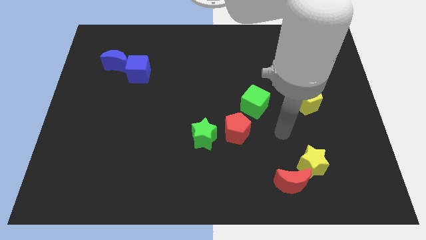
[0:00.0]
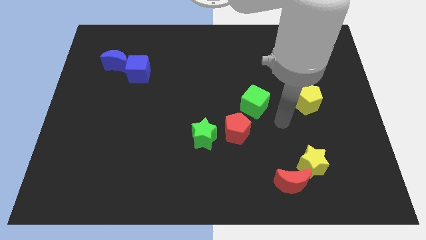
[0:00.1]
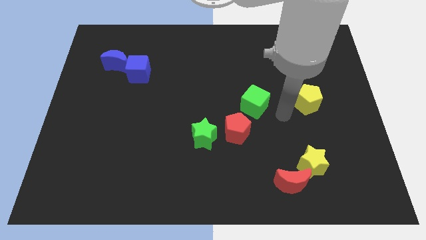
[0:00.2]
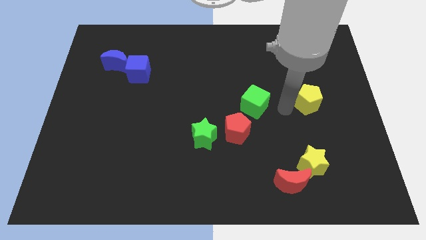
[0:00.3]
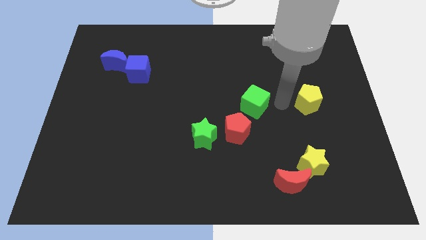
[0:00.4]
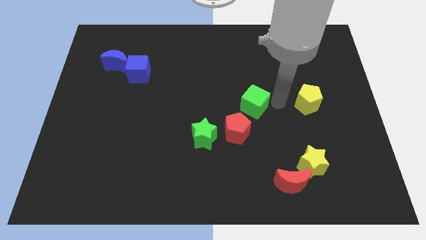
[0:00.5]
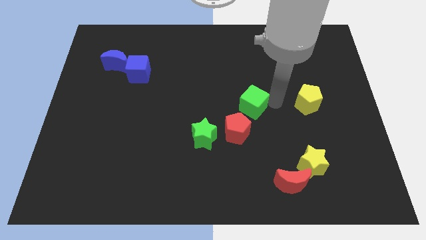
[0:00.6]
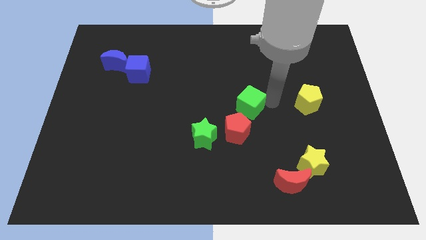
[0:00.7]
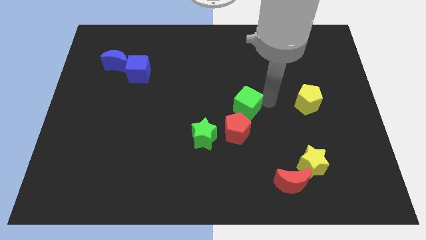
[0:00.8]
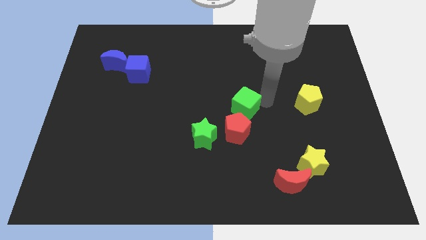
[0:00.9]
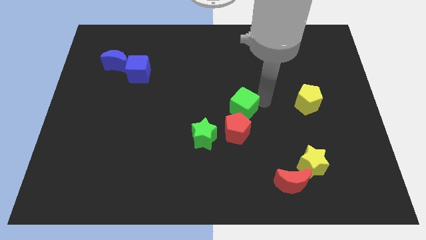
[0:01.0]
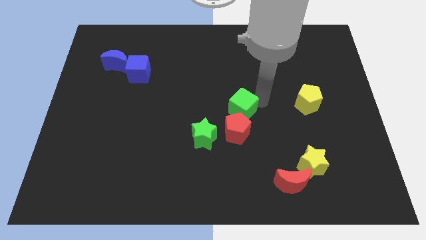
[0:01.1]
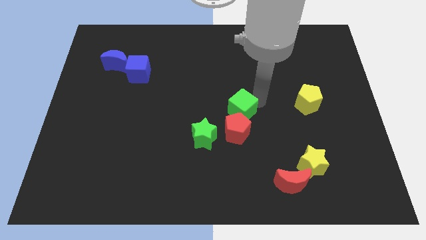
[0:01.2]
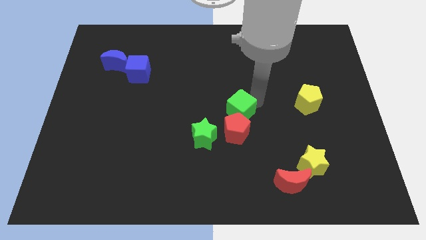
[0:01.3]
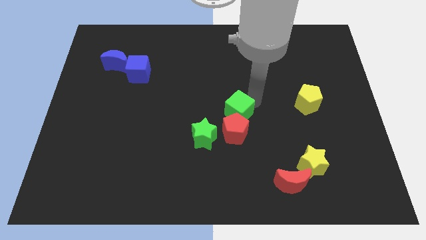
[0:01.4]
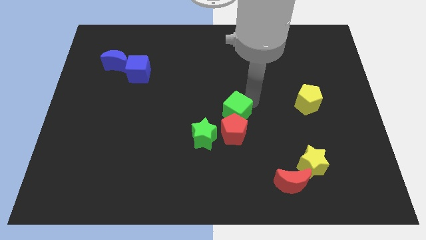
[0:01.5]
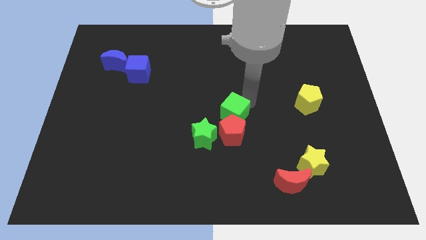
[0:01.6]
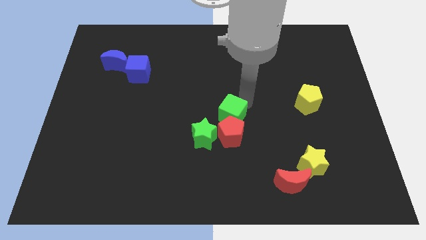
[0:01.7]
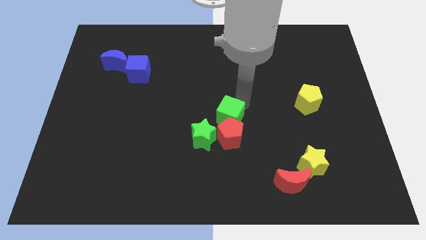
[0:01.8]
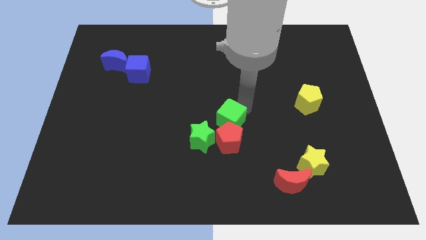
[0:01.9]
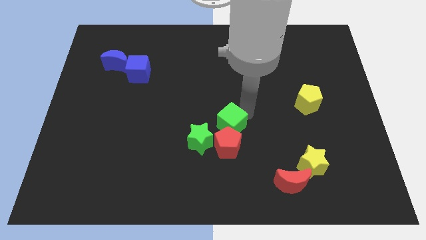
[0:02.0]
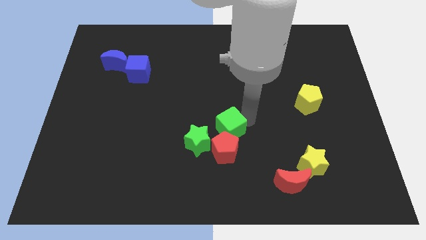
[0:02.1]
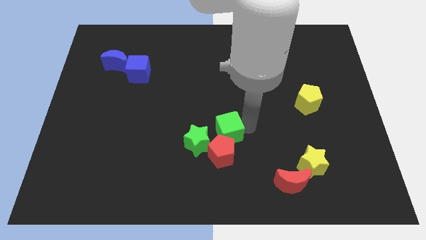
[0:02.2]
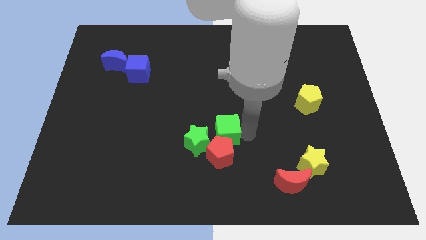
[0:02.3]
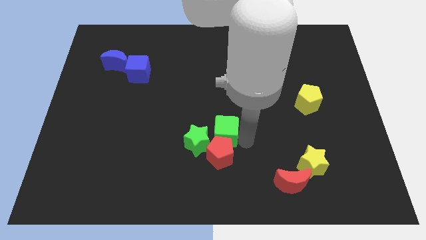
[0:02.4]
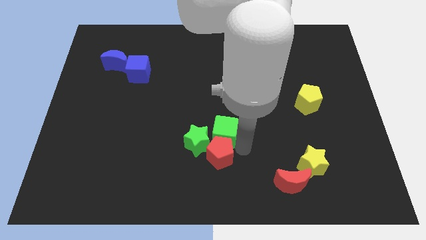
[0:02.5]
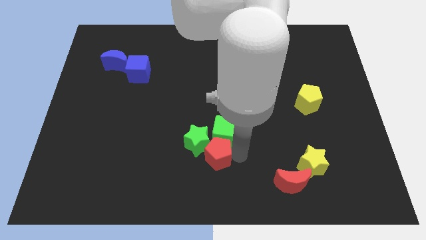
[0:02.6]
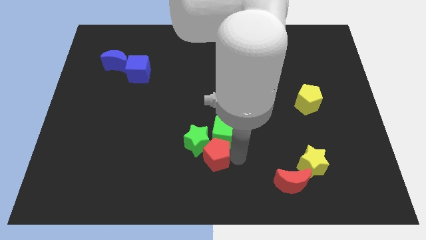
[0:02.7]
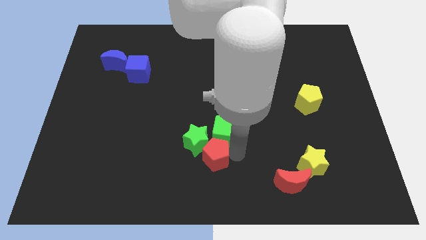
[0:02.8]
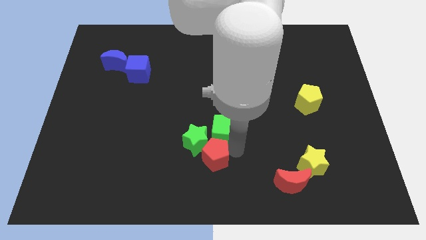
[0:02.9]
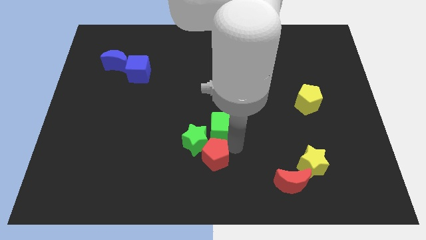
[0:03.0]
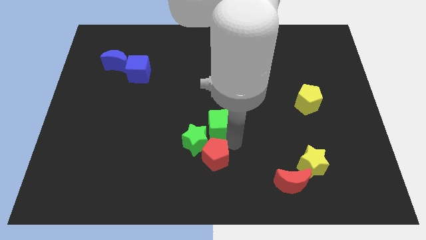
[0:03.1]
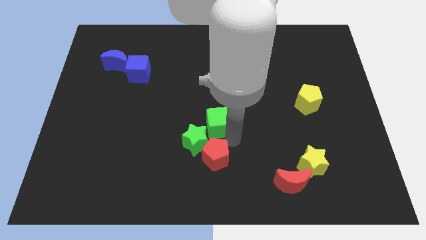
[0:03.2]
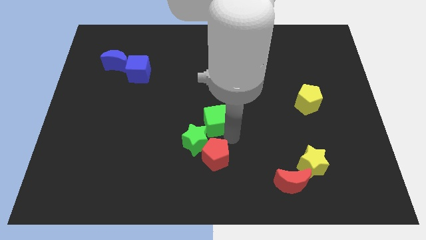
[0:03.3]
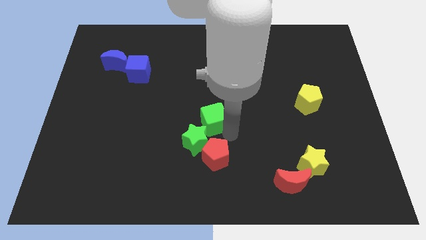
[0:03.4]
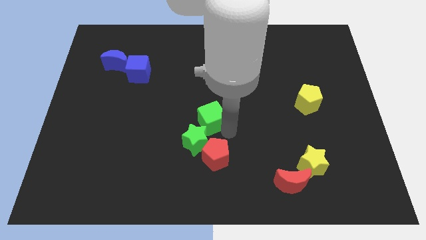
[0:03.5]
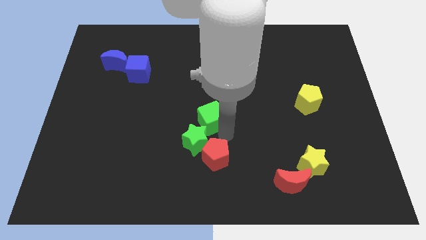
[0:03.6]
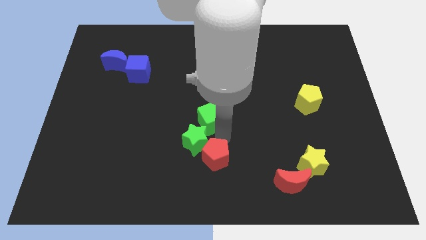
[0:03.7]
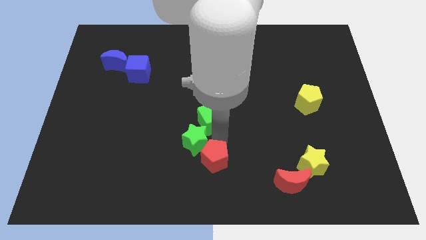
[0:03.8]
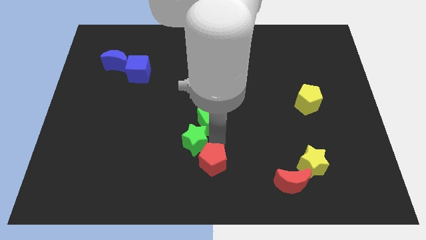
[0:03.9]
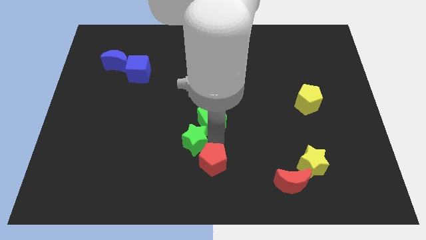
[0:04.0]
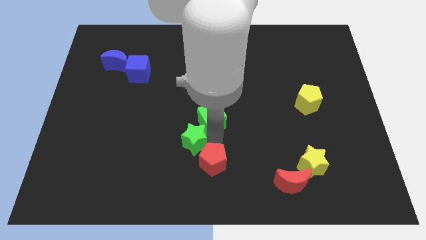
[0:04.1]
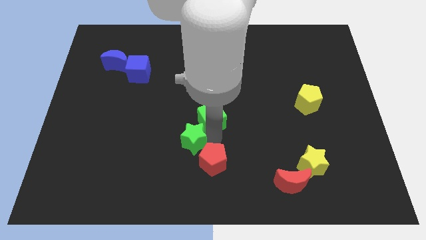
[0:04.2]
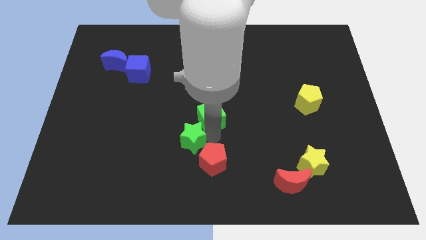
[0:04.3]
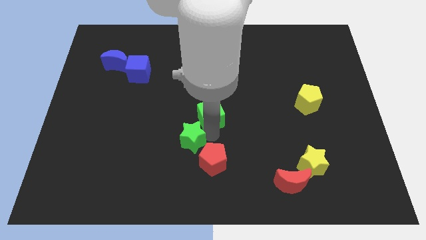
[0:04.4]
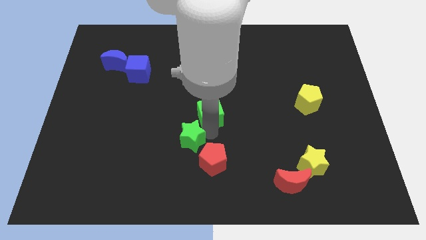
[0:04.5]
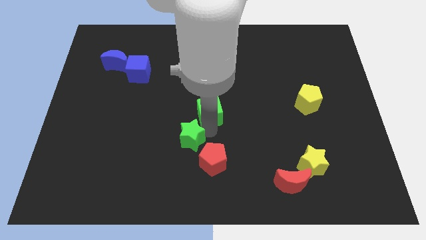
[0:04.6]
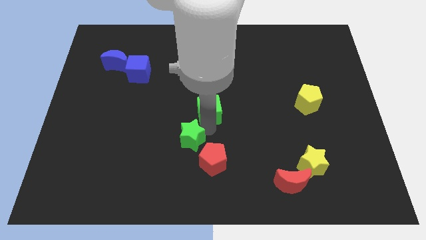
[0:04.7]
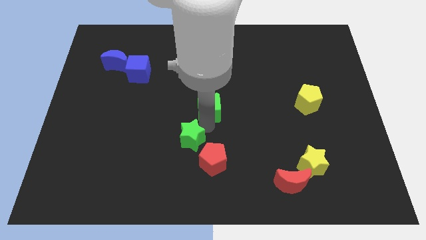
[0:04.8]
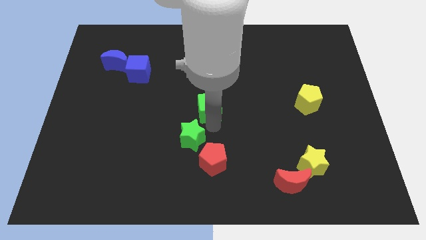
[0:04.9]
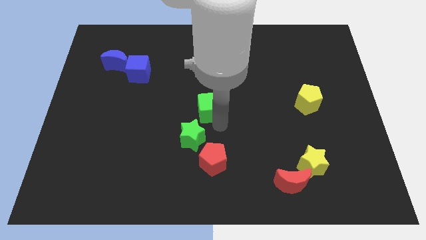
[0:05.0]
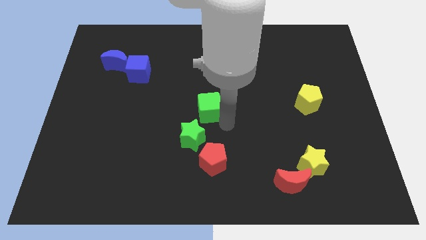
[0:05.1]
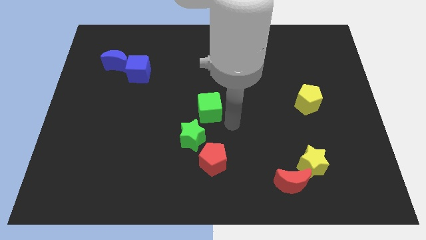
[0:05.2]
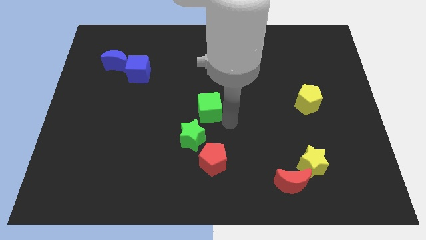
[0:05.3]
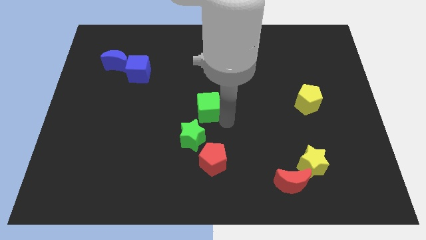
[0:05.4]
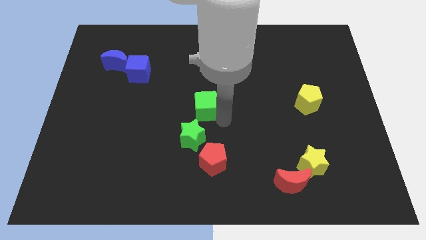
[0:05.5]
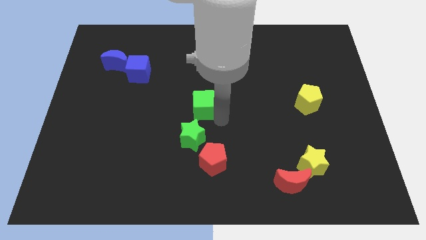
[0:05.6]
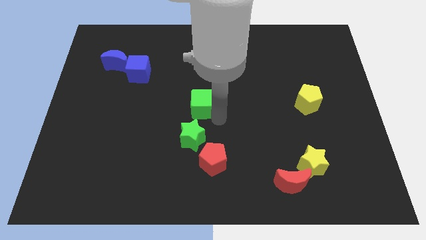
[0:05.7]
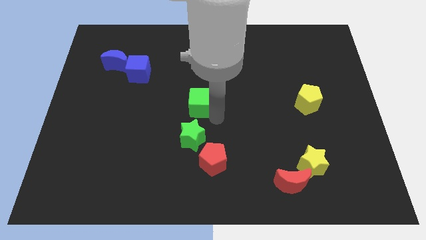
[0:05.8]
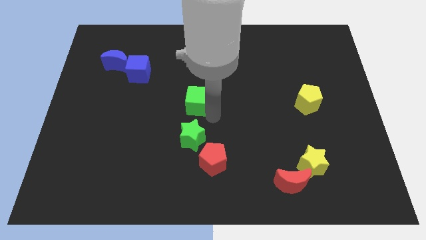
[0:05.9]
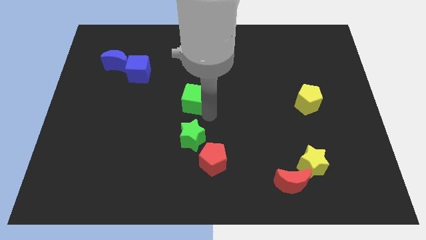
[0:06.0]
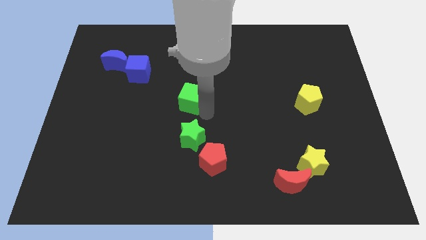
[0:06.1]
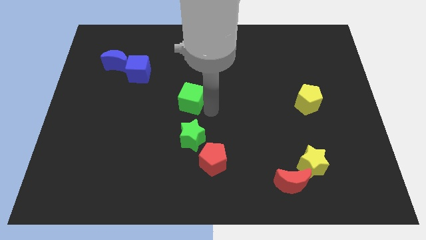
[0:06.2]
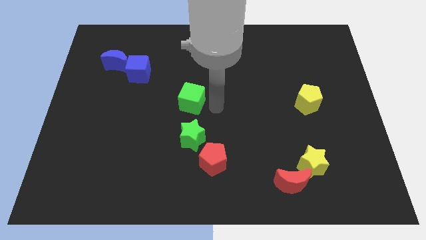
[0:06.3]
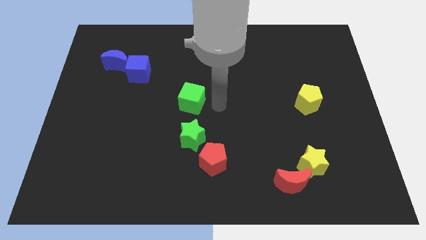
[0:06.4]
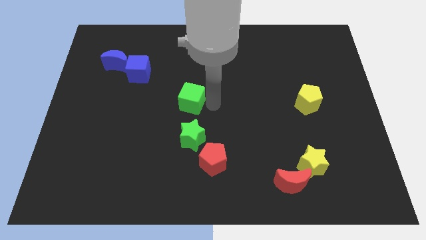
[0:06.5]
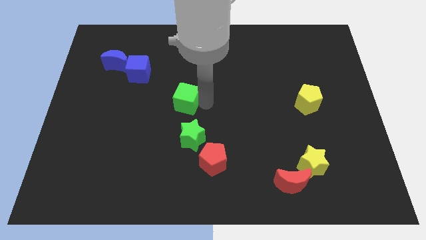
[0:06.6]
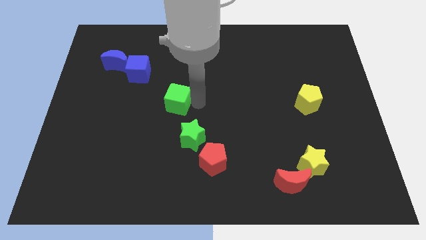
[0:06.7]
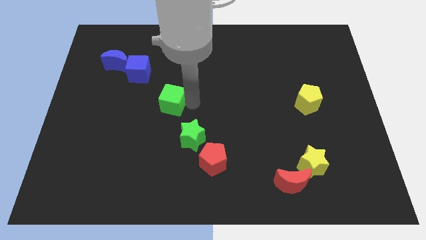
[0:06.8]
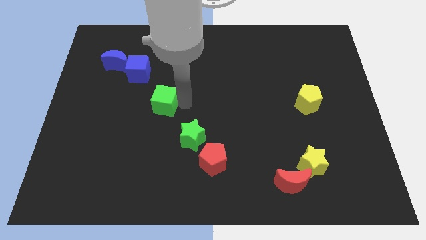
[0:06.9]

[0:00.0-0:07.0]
push the green cube to the left

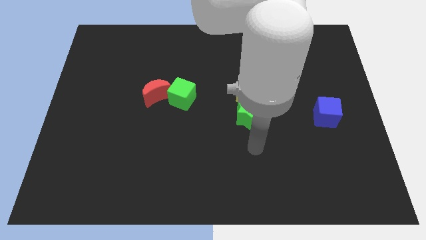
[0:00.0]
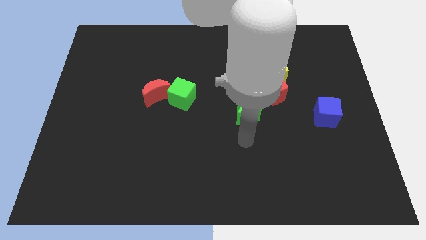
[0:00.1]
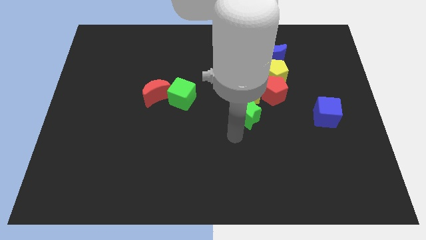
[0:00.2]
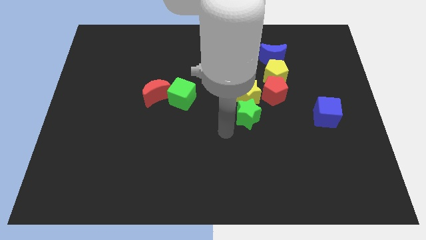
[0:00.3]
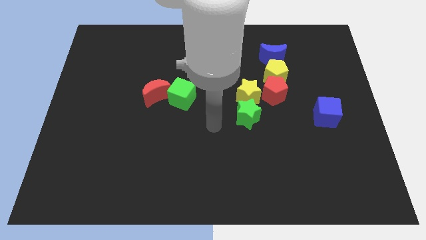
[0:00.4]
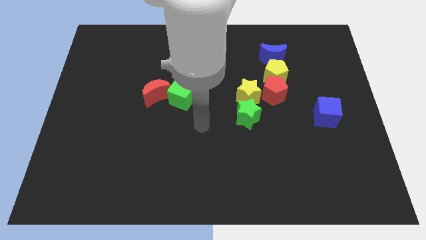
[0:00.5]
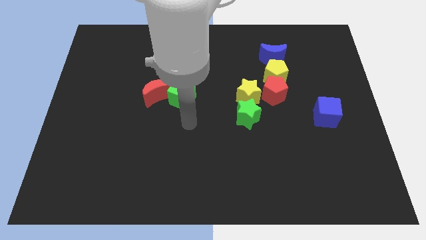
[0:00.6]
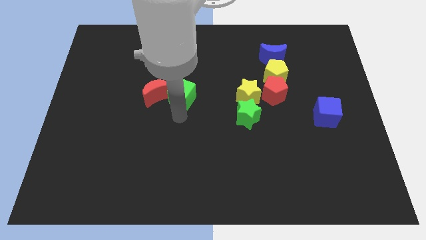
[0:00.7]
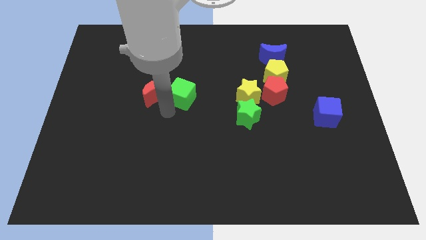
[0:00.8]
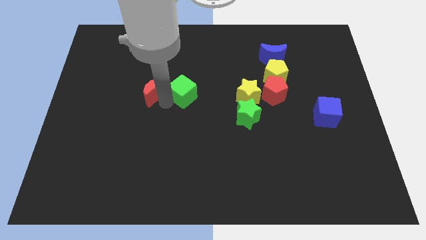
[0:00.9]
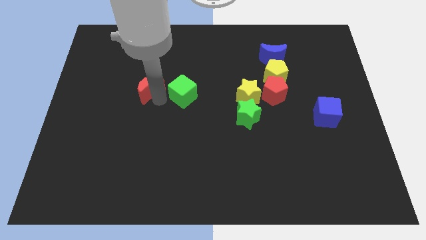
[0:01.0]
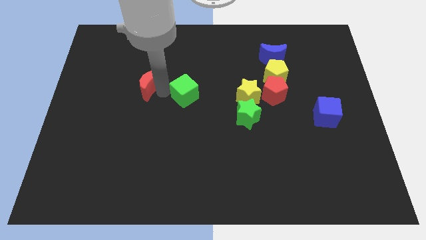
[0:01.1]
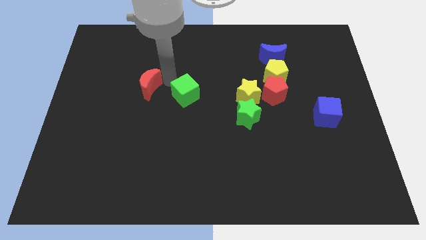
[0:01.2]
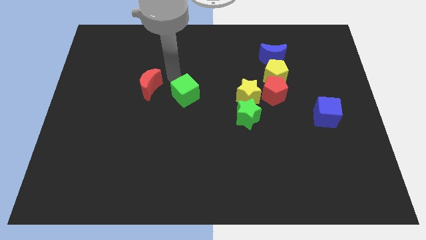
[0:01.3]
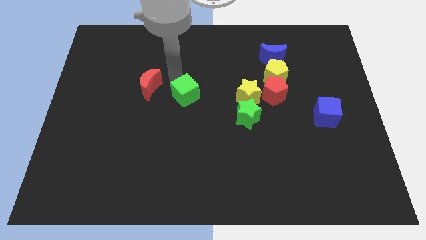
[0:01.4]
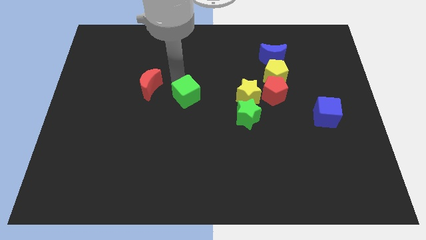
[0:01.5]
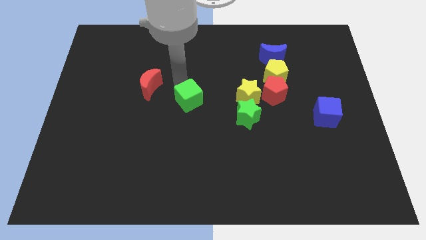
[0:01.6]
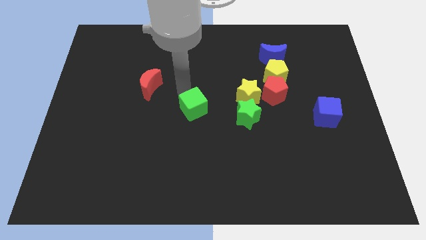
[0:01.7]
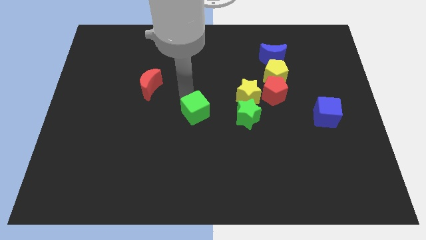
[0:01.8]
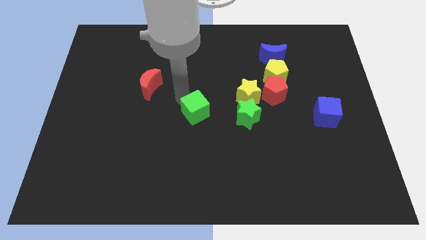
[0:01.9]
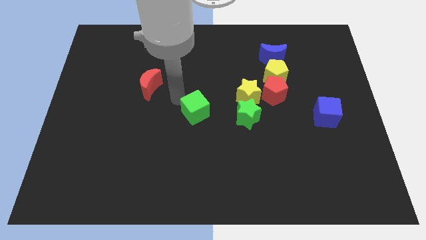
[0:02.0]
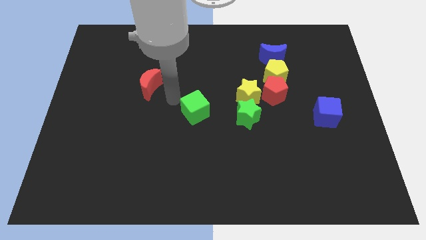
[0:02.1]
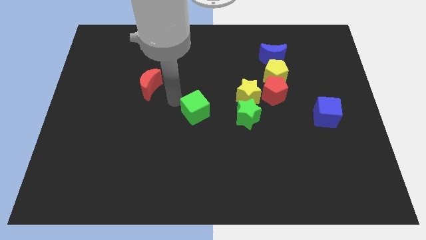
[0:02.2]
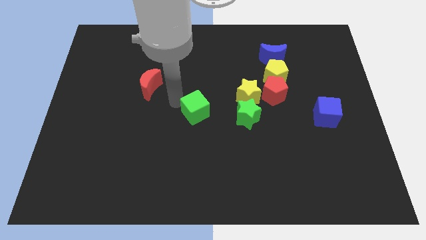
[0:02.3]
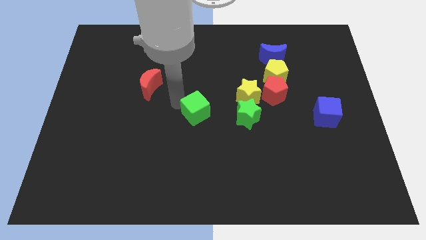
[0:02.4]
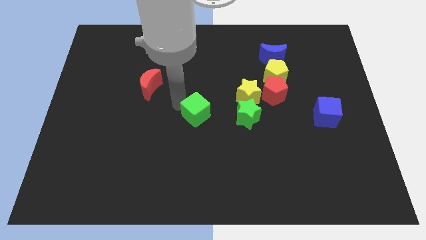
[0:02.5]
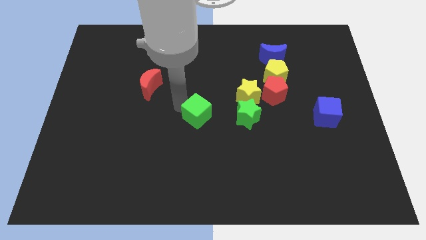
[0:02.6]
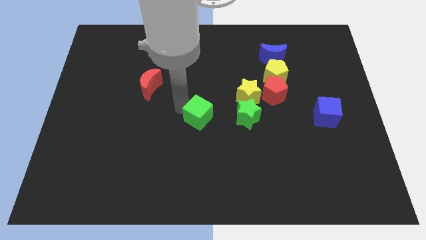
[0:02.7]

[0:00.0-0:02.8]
slide the green cube a bit down and then right
